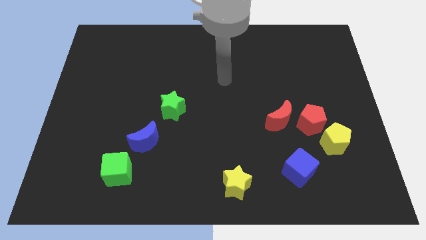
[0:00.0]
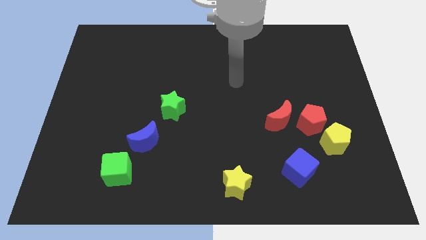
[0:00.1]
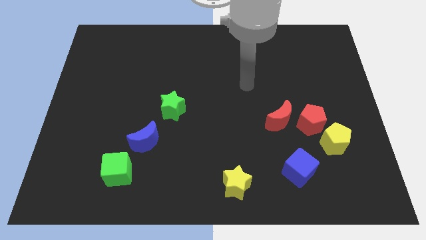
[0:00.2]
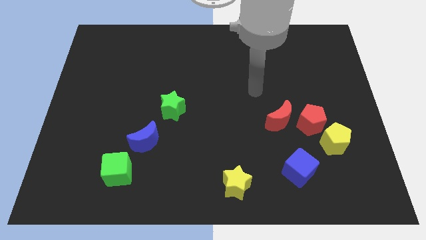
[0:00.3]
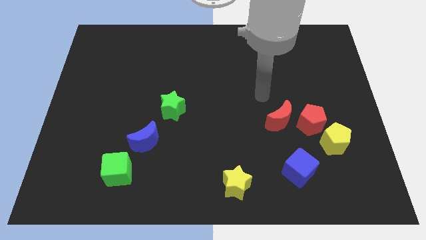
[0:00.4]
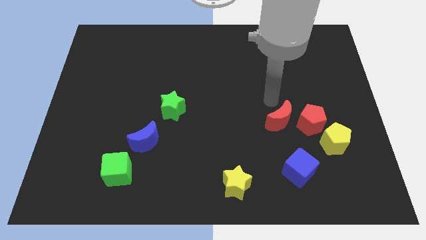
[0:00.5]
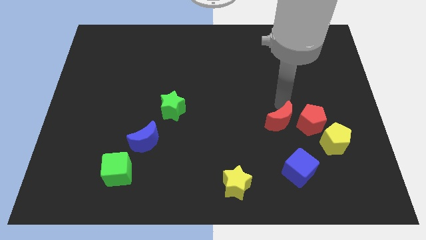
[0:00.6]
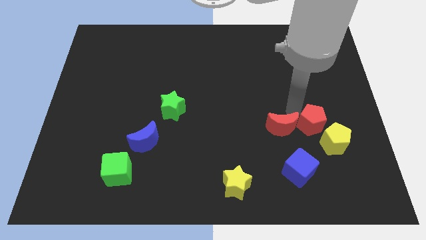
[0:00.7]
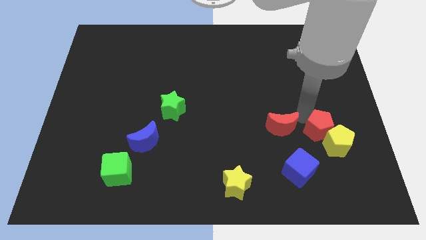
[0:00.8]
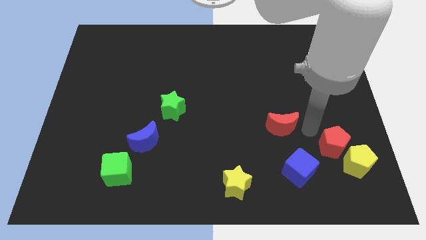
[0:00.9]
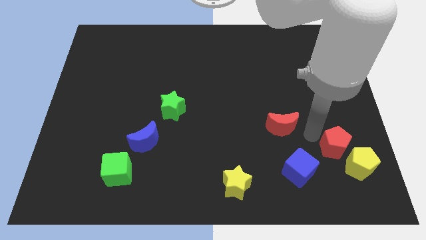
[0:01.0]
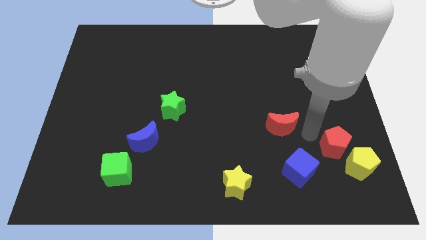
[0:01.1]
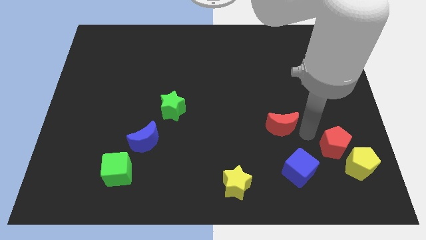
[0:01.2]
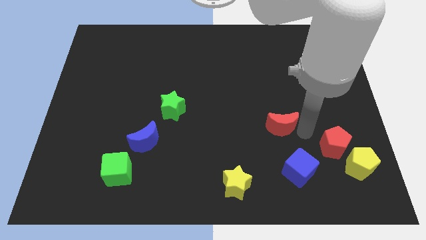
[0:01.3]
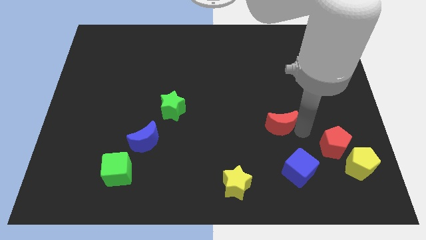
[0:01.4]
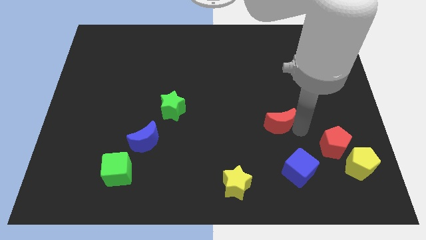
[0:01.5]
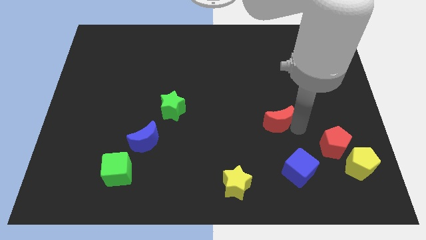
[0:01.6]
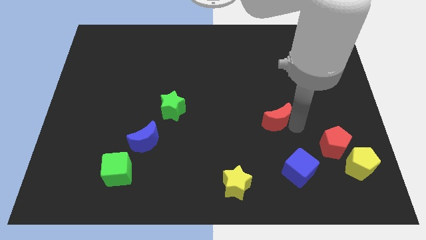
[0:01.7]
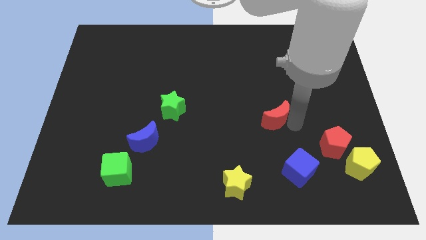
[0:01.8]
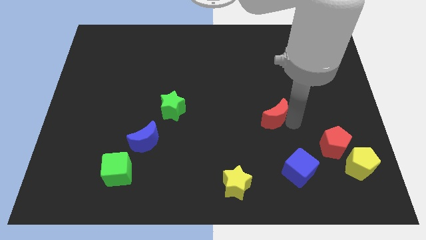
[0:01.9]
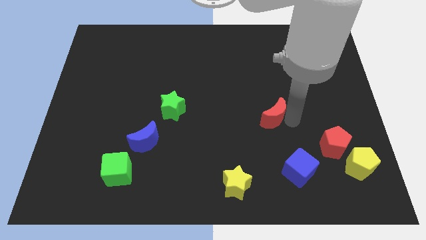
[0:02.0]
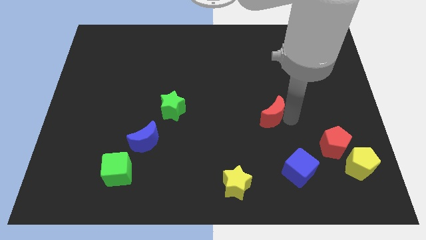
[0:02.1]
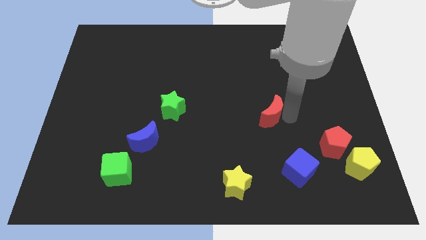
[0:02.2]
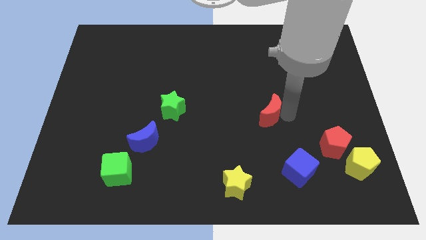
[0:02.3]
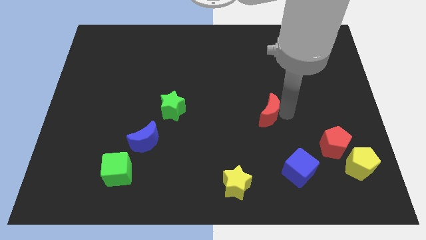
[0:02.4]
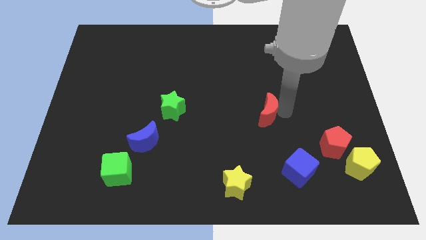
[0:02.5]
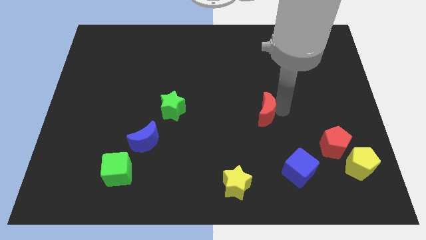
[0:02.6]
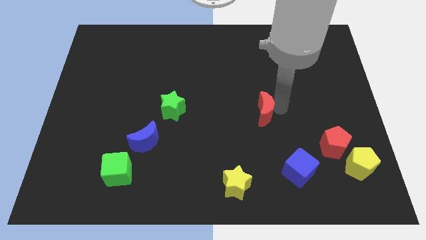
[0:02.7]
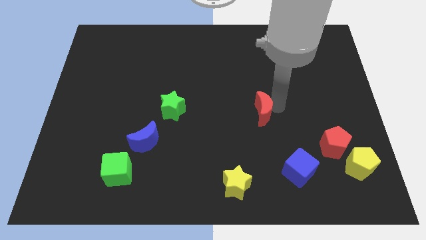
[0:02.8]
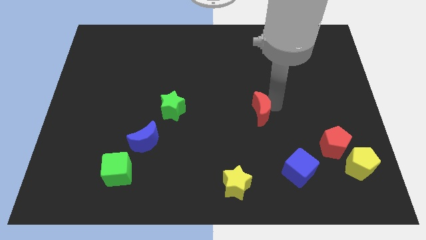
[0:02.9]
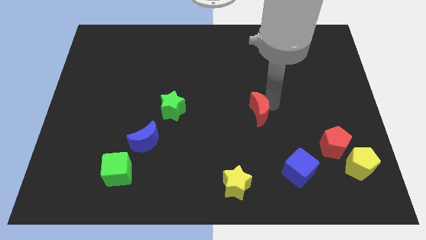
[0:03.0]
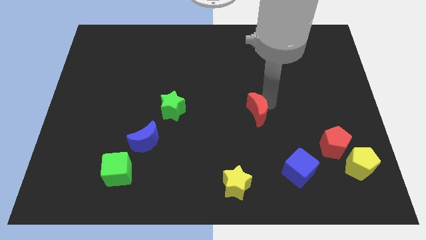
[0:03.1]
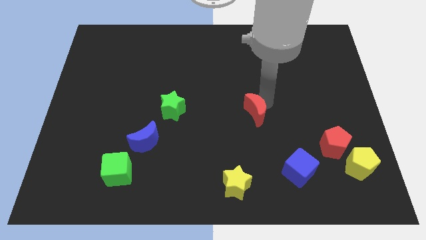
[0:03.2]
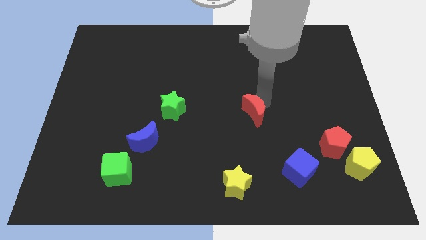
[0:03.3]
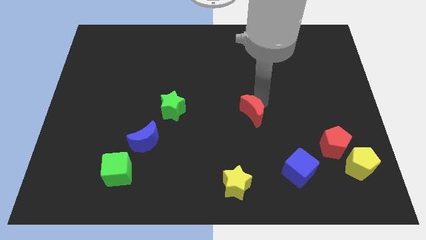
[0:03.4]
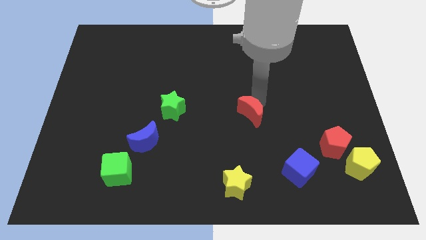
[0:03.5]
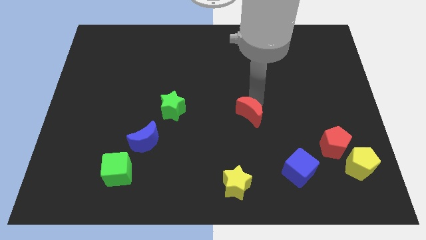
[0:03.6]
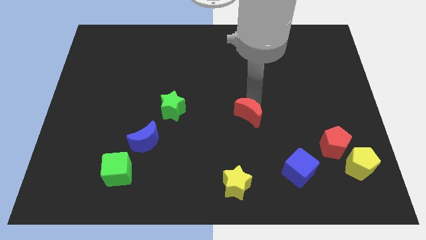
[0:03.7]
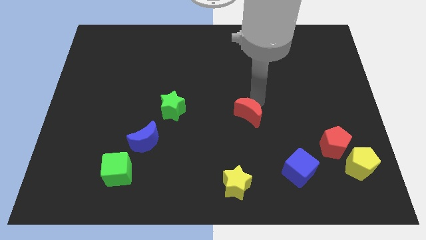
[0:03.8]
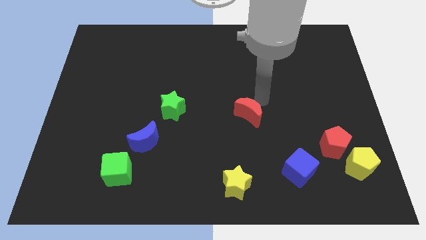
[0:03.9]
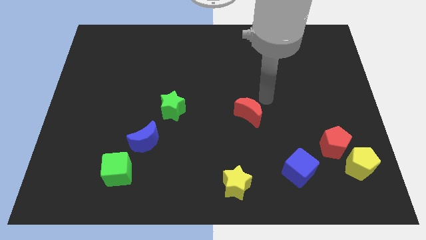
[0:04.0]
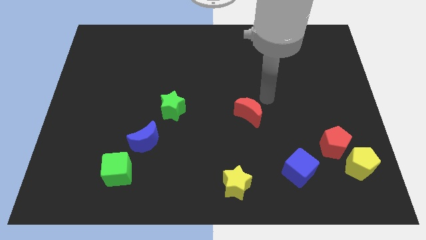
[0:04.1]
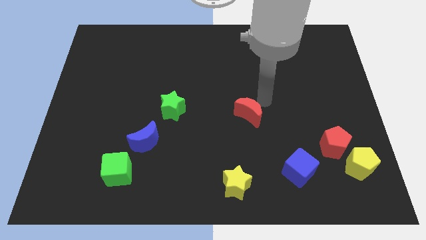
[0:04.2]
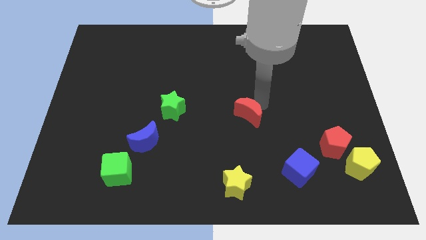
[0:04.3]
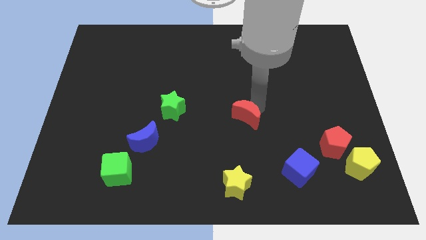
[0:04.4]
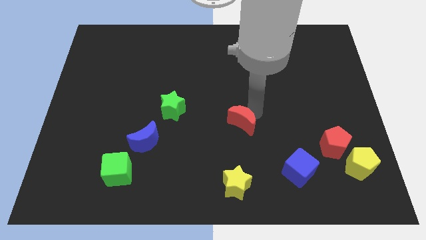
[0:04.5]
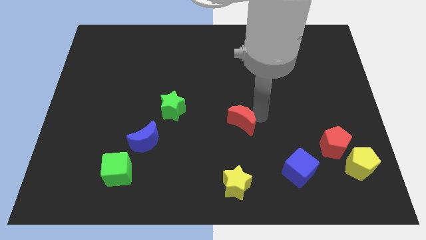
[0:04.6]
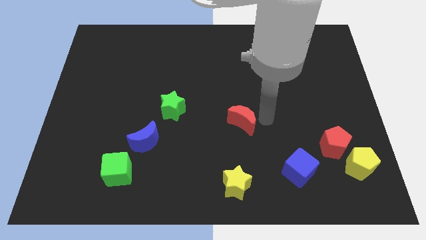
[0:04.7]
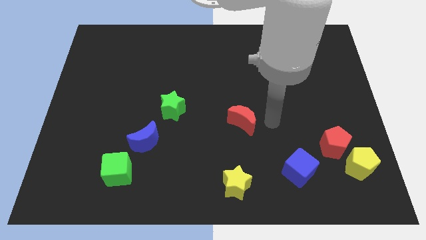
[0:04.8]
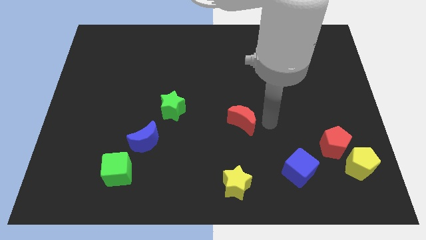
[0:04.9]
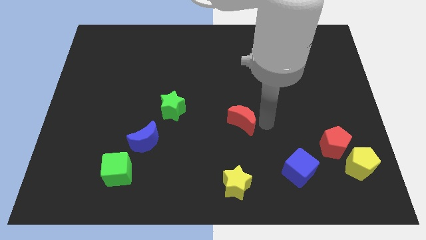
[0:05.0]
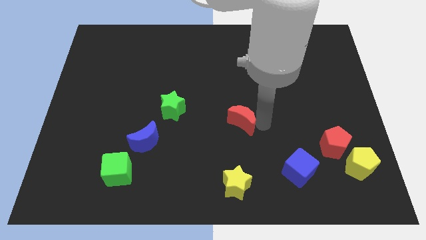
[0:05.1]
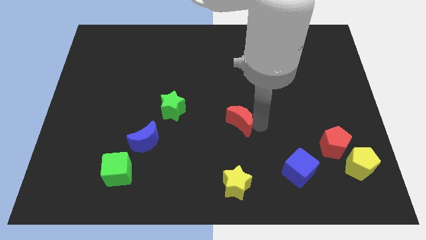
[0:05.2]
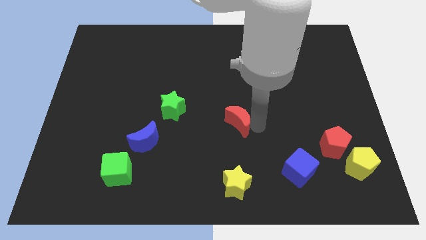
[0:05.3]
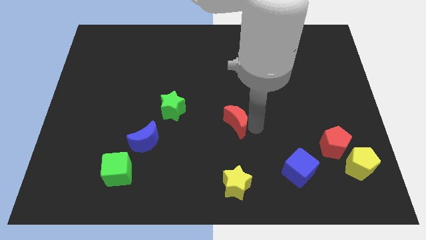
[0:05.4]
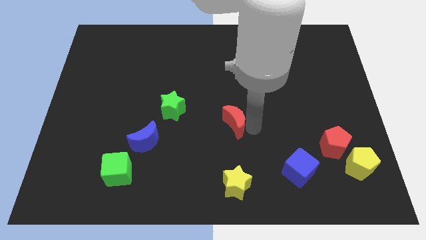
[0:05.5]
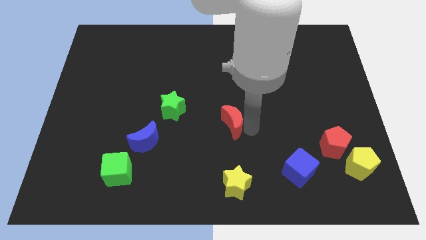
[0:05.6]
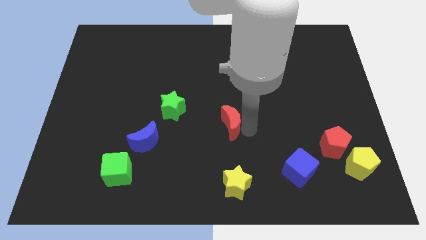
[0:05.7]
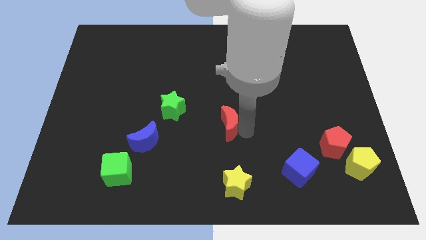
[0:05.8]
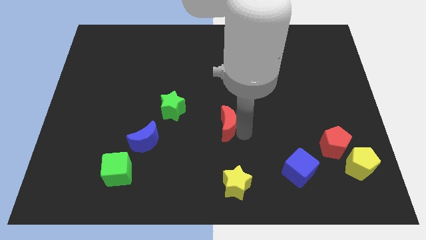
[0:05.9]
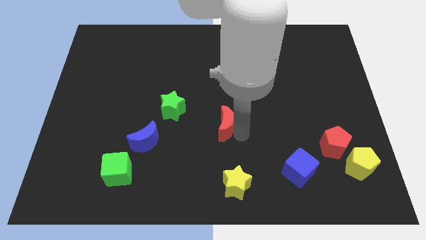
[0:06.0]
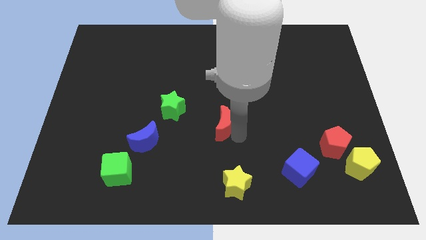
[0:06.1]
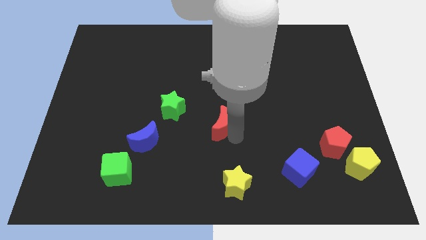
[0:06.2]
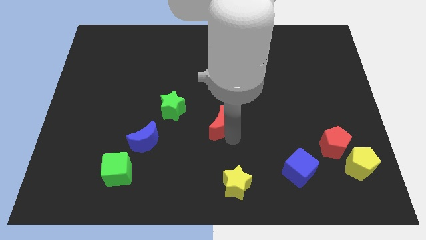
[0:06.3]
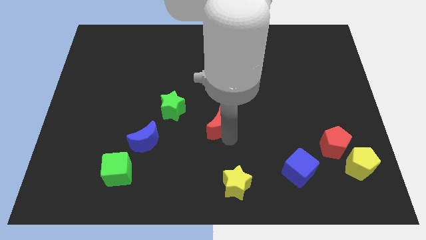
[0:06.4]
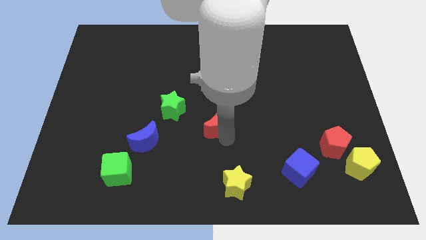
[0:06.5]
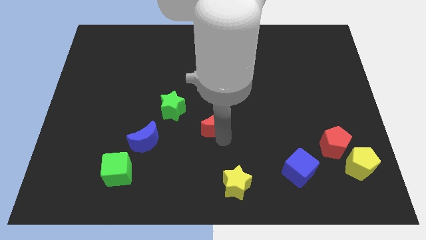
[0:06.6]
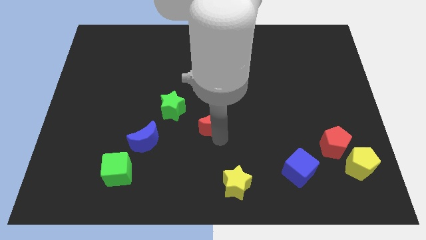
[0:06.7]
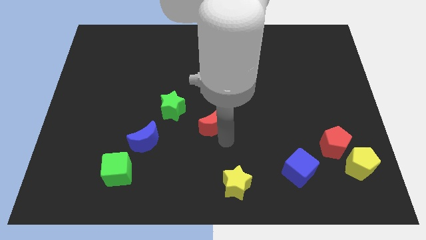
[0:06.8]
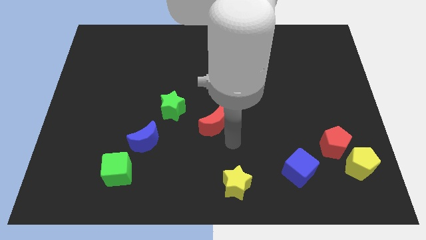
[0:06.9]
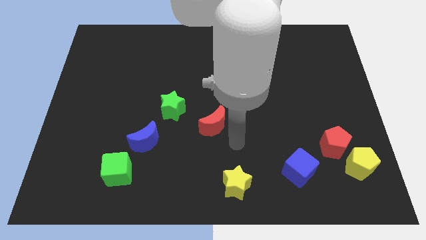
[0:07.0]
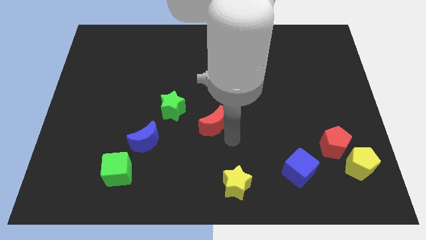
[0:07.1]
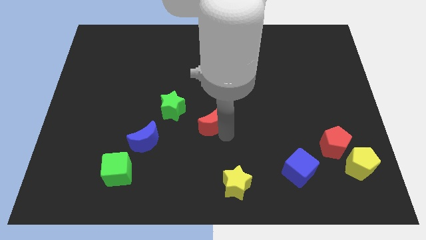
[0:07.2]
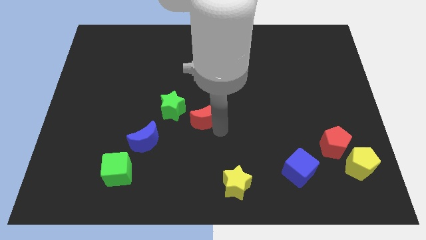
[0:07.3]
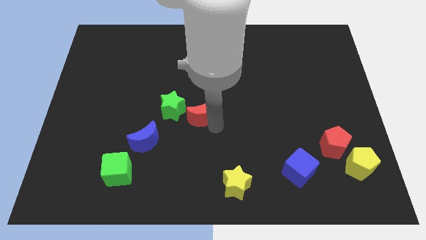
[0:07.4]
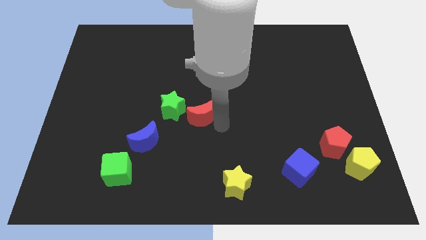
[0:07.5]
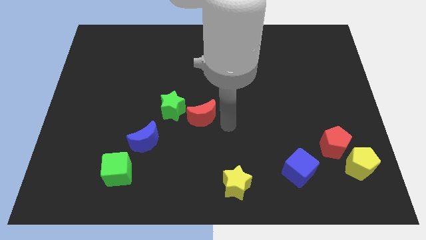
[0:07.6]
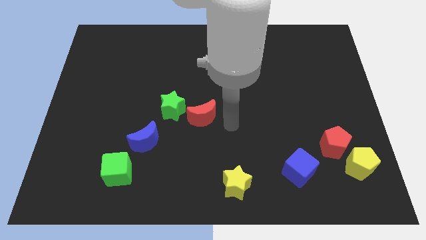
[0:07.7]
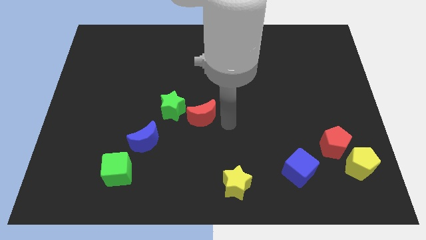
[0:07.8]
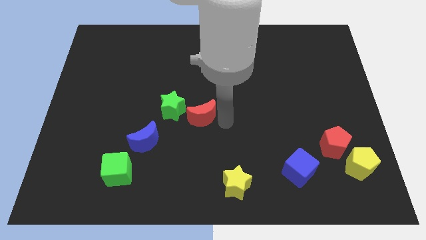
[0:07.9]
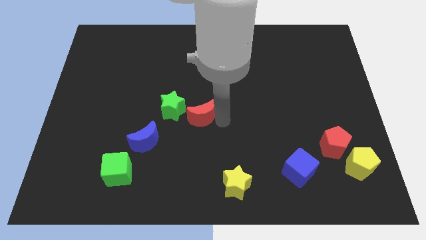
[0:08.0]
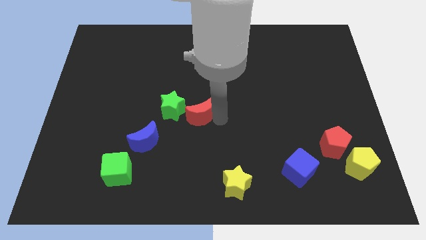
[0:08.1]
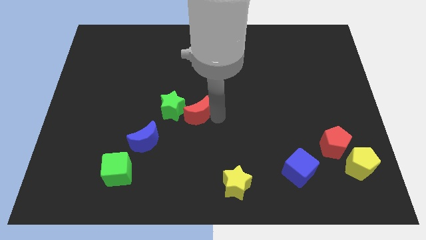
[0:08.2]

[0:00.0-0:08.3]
put the red moon to the green star
